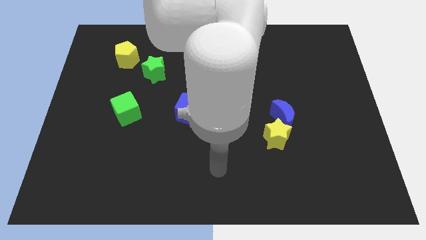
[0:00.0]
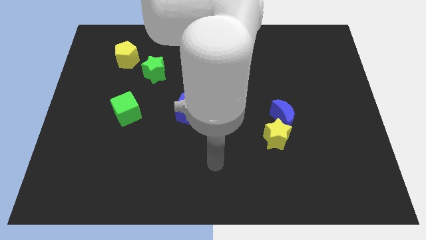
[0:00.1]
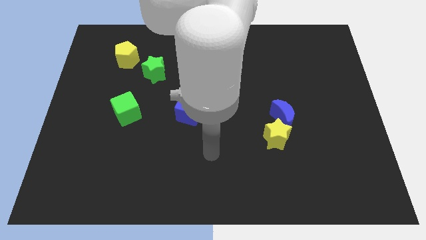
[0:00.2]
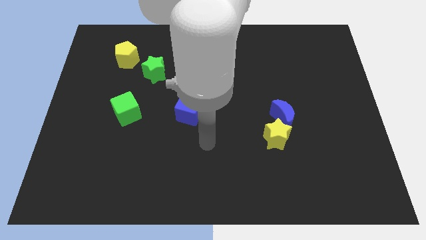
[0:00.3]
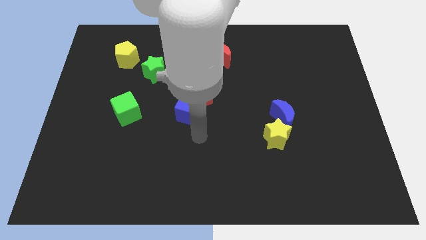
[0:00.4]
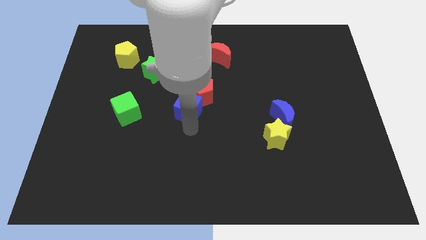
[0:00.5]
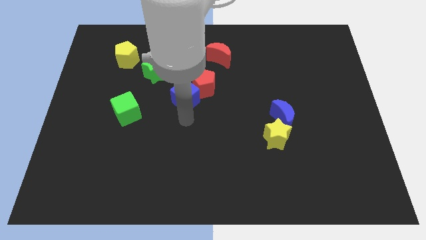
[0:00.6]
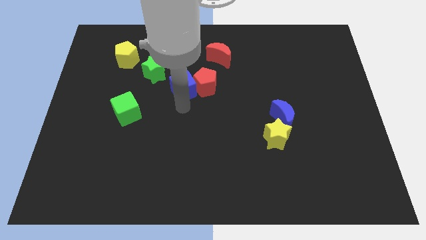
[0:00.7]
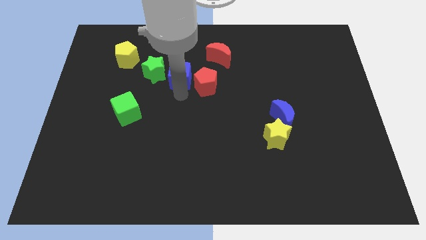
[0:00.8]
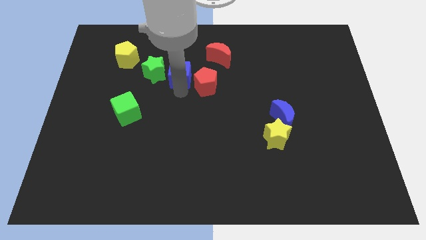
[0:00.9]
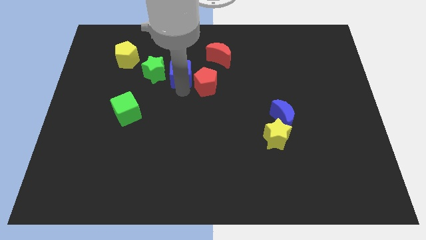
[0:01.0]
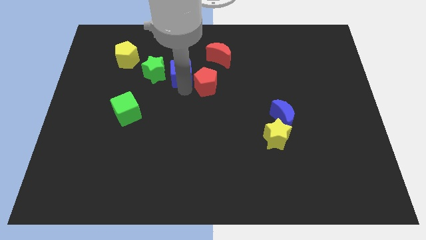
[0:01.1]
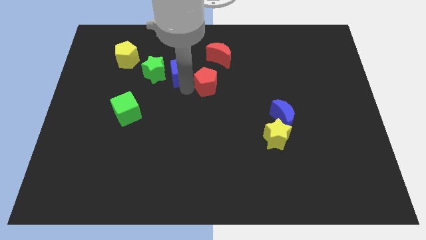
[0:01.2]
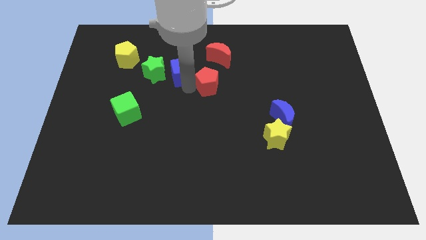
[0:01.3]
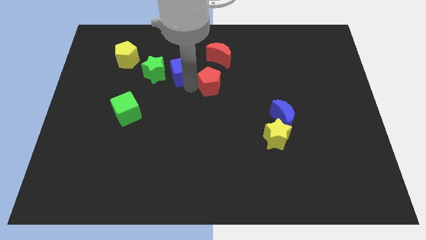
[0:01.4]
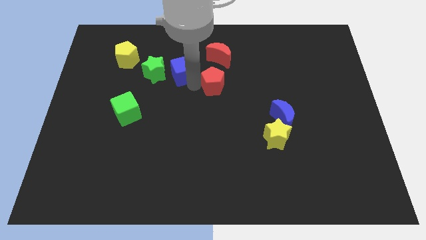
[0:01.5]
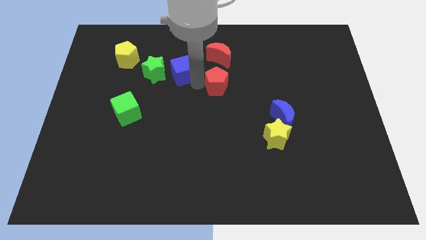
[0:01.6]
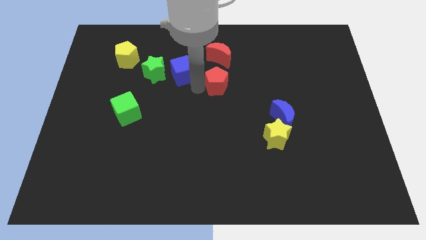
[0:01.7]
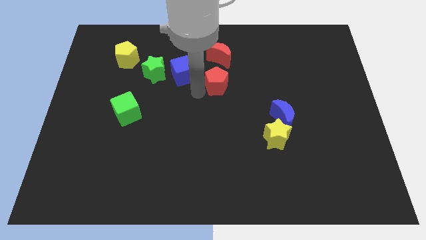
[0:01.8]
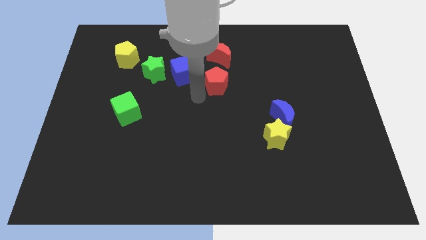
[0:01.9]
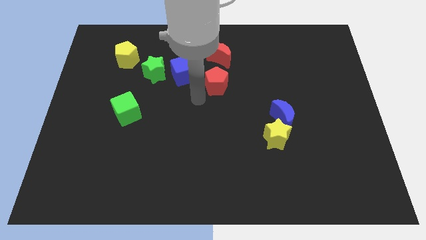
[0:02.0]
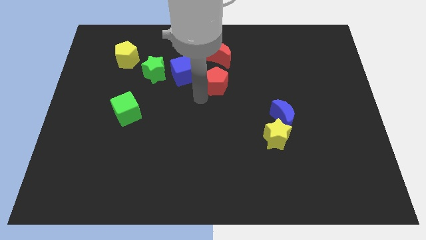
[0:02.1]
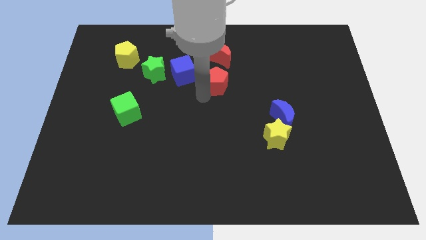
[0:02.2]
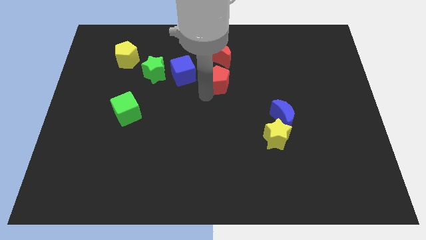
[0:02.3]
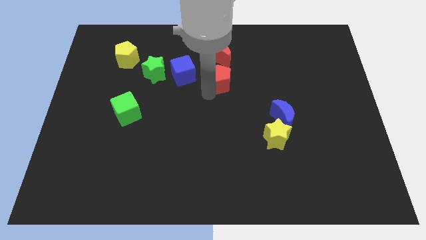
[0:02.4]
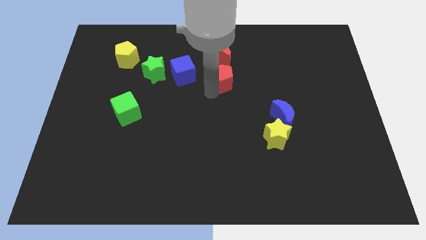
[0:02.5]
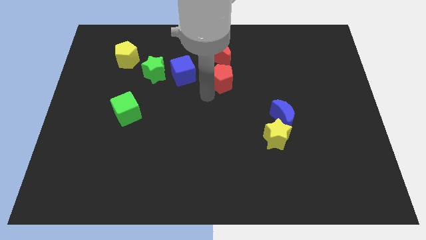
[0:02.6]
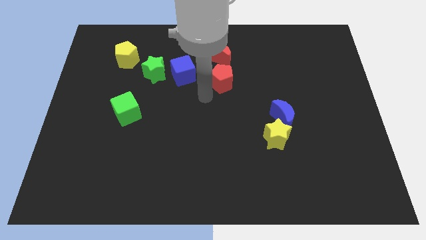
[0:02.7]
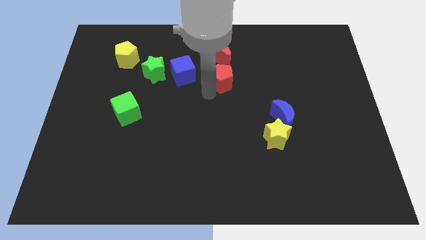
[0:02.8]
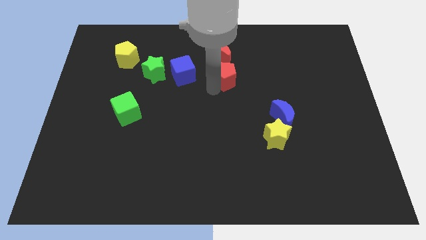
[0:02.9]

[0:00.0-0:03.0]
slide the red pentagon upwards and then to the right a little bit

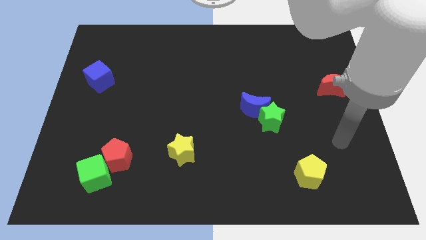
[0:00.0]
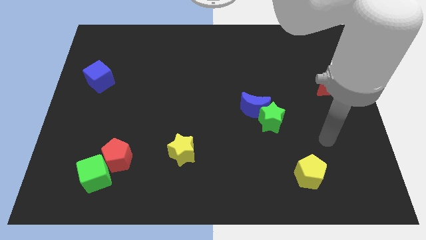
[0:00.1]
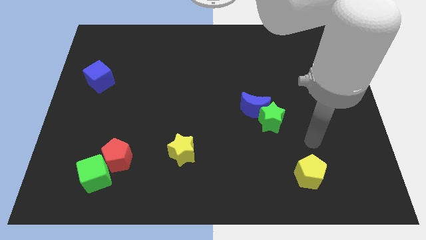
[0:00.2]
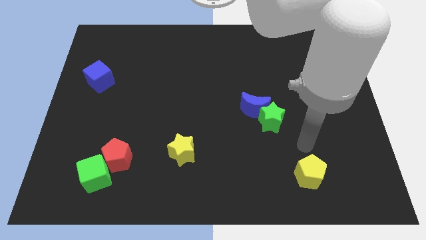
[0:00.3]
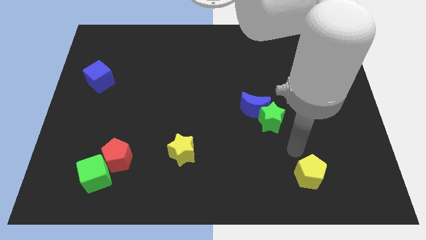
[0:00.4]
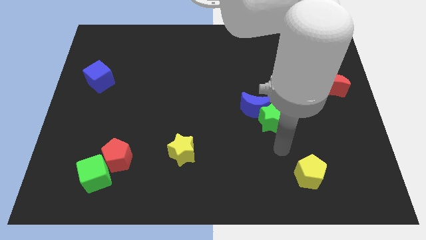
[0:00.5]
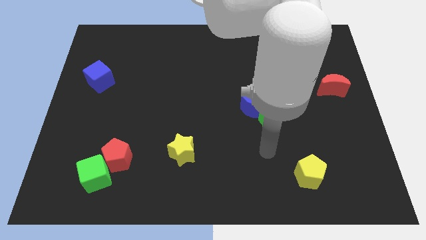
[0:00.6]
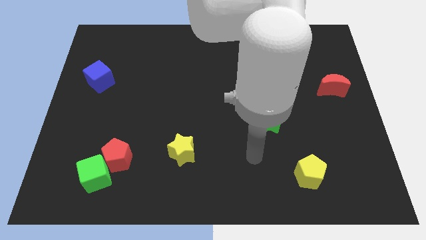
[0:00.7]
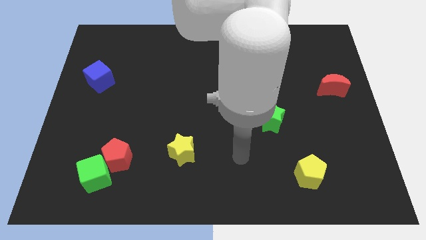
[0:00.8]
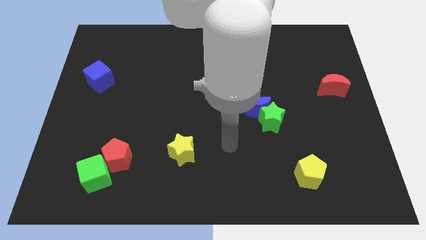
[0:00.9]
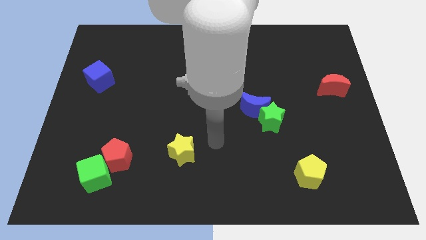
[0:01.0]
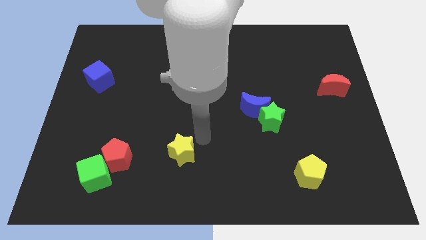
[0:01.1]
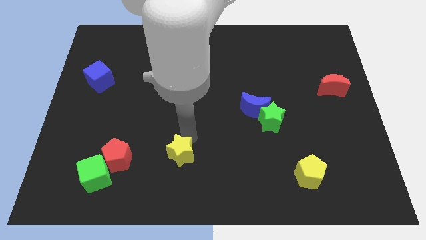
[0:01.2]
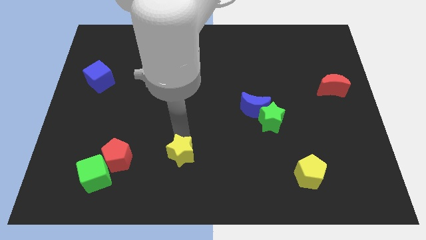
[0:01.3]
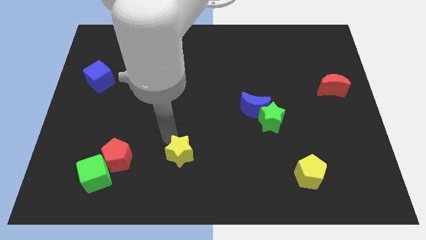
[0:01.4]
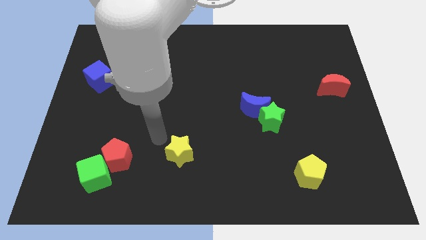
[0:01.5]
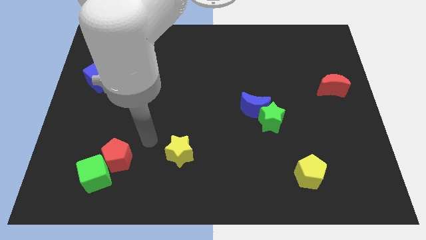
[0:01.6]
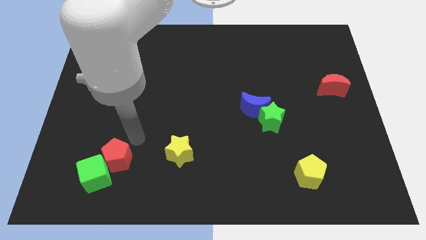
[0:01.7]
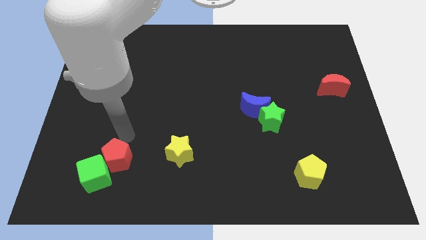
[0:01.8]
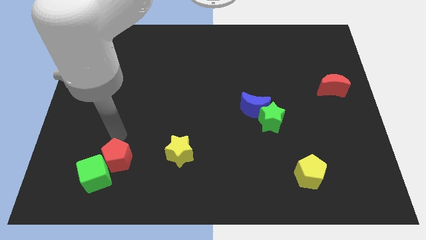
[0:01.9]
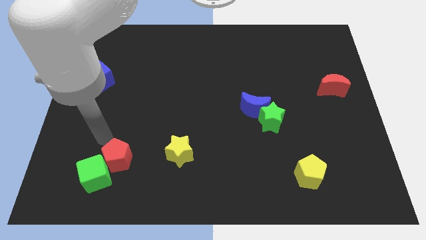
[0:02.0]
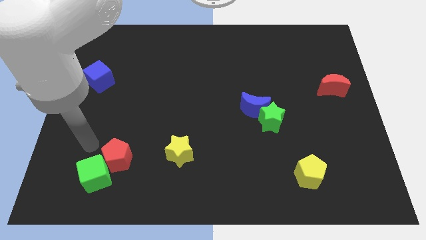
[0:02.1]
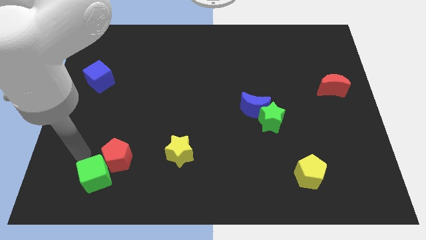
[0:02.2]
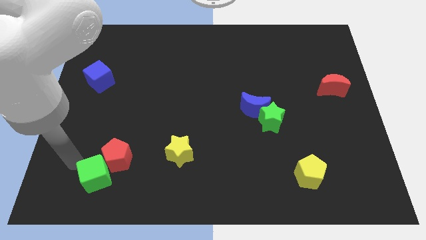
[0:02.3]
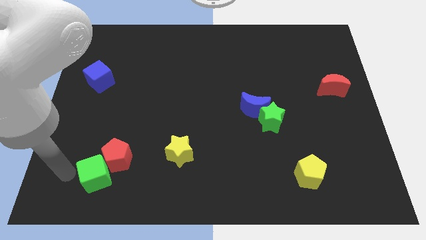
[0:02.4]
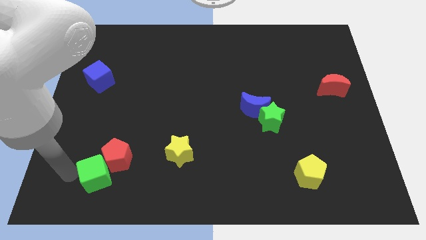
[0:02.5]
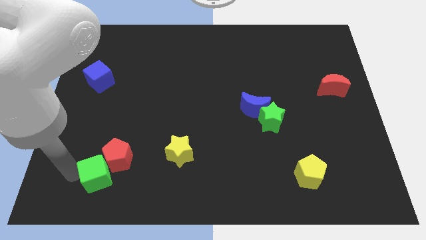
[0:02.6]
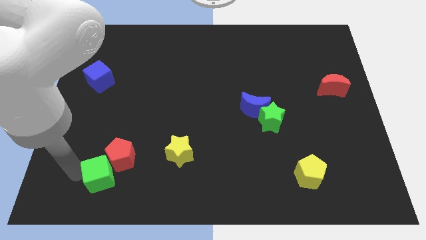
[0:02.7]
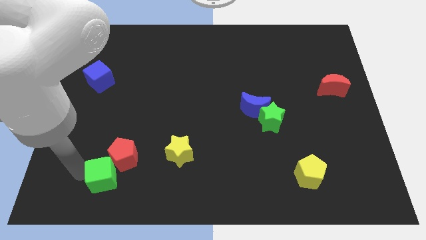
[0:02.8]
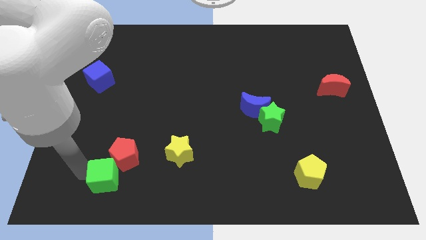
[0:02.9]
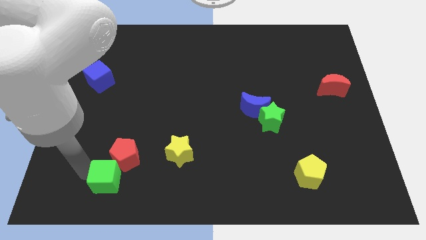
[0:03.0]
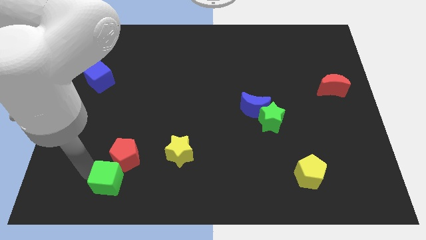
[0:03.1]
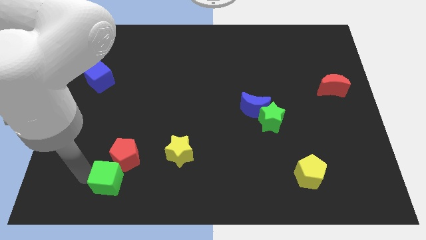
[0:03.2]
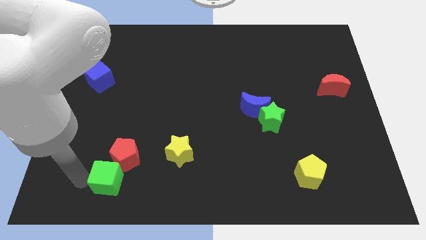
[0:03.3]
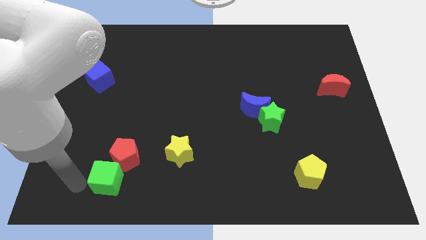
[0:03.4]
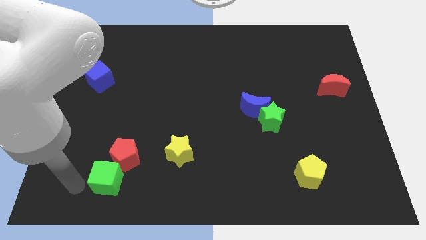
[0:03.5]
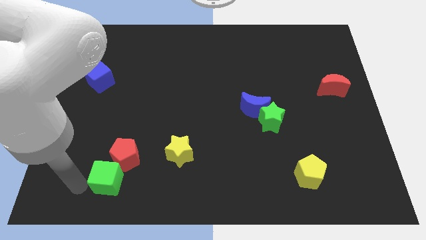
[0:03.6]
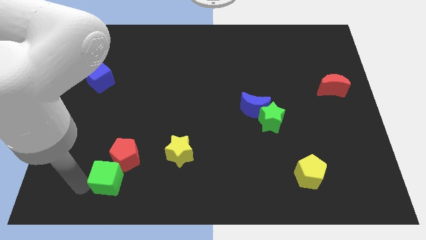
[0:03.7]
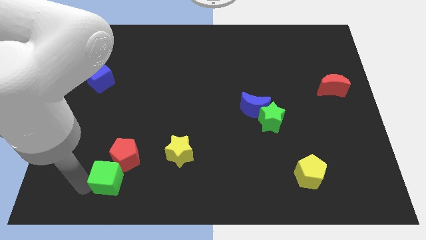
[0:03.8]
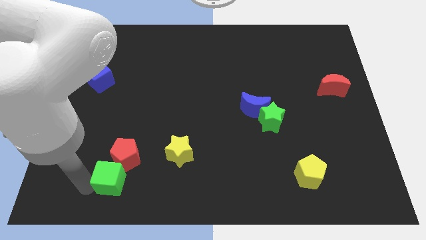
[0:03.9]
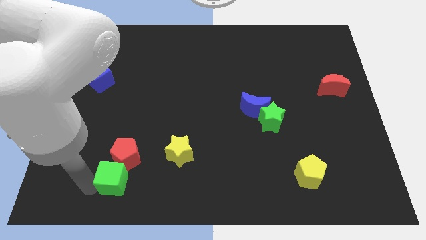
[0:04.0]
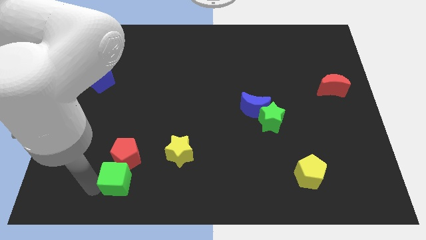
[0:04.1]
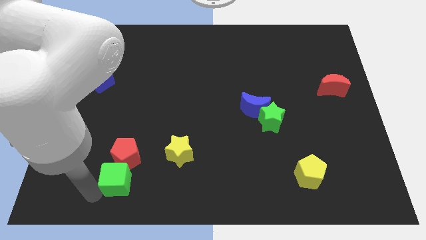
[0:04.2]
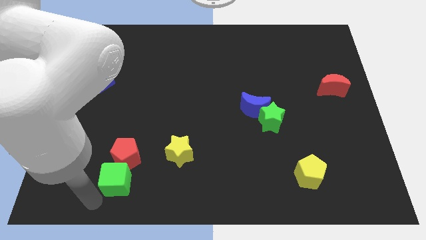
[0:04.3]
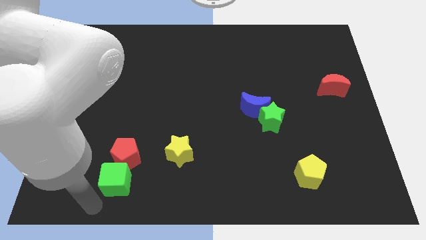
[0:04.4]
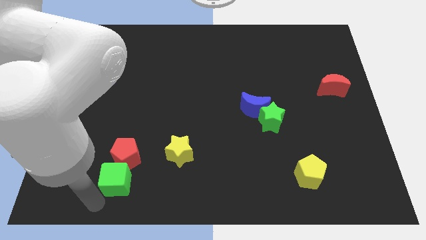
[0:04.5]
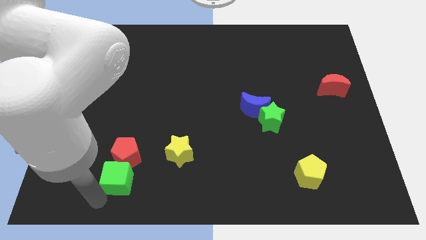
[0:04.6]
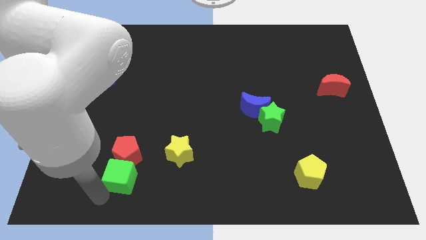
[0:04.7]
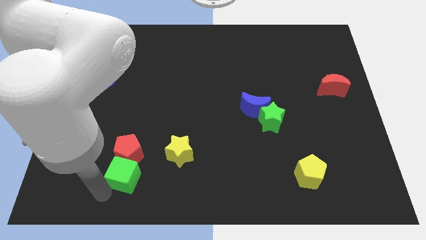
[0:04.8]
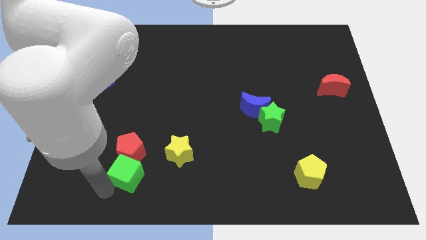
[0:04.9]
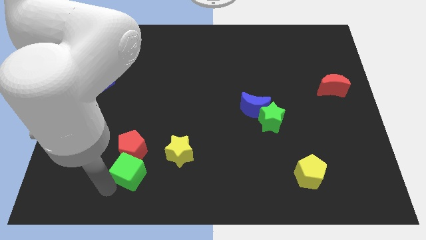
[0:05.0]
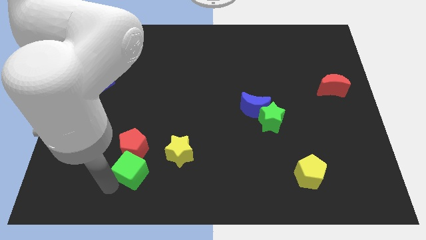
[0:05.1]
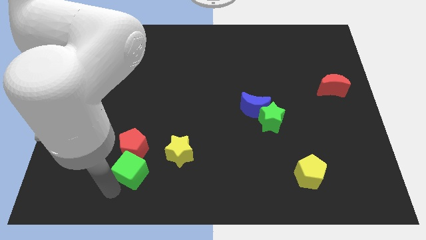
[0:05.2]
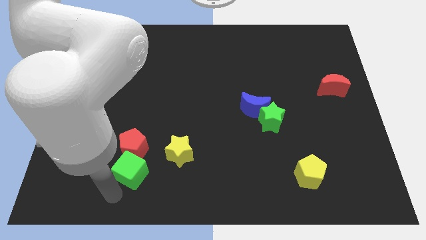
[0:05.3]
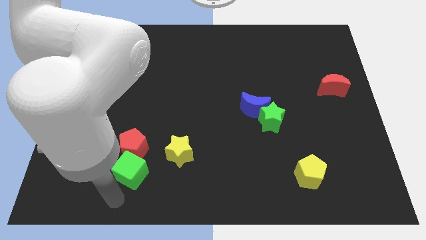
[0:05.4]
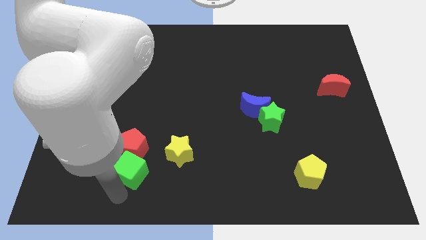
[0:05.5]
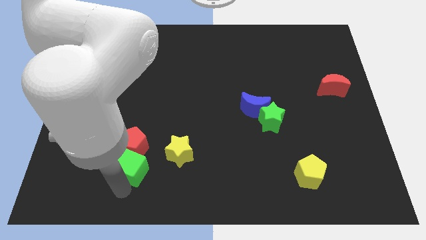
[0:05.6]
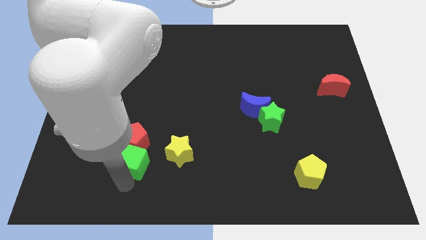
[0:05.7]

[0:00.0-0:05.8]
push the green cube up and right a bit
